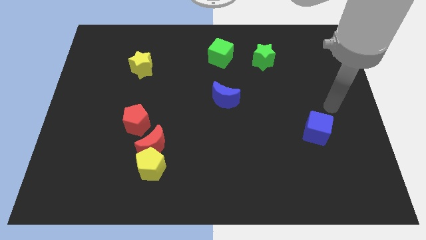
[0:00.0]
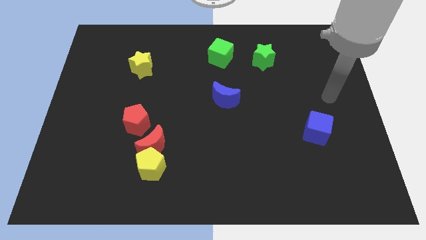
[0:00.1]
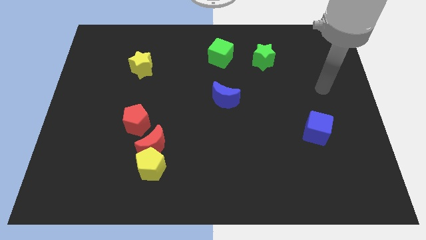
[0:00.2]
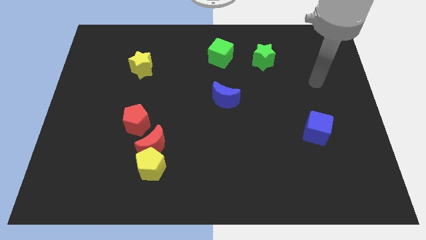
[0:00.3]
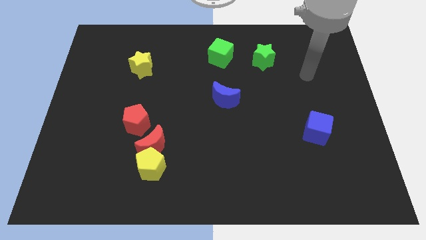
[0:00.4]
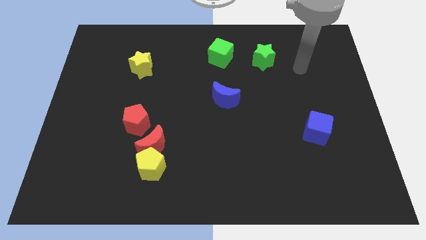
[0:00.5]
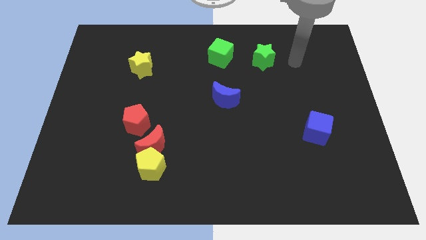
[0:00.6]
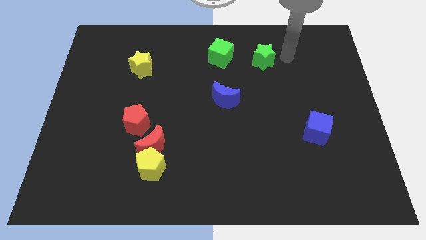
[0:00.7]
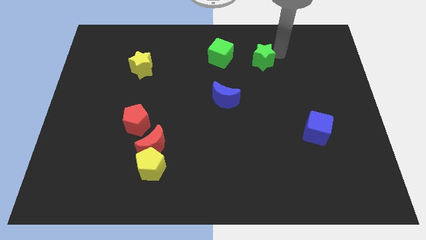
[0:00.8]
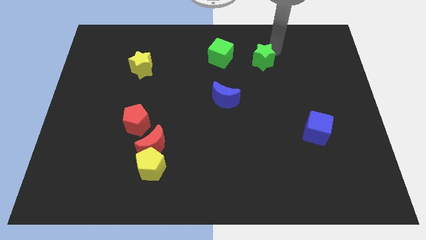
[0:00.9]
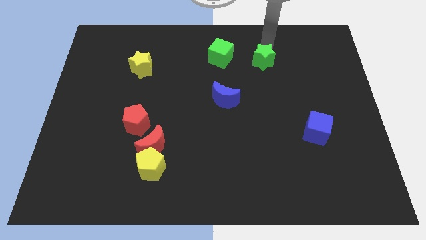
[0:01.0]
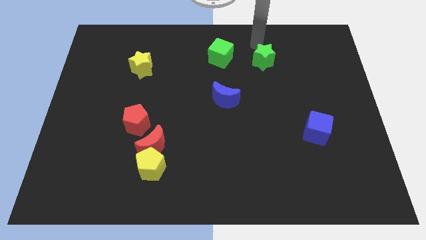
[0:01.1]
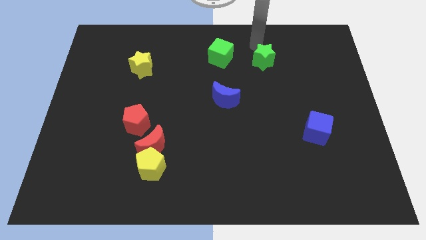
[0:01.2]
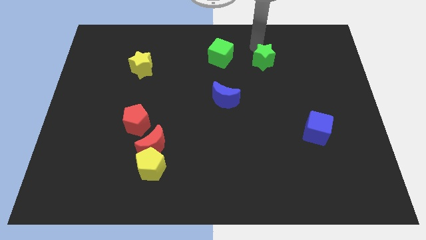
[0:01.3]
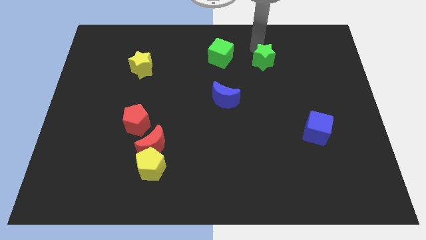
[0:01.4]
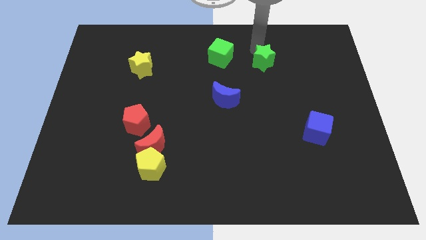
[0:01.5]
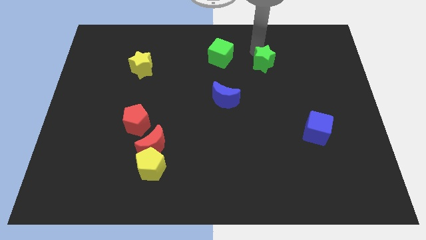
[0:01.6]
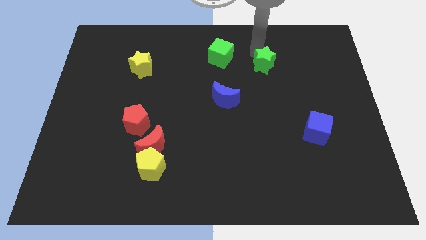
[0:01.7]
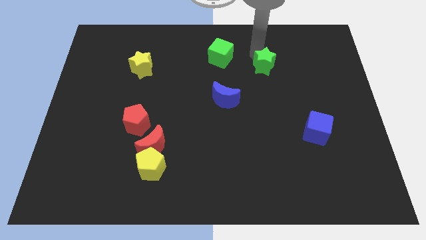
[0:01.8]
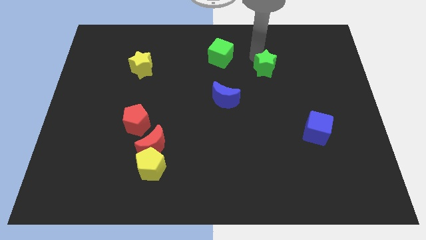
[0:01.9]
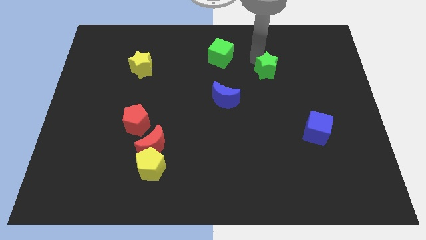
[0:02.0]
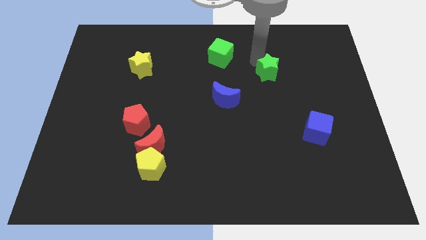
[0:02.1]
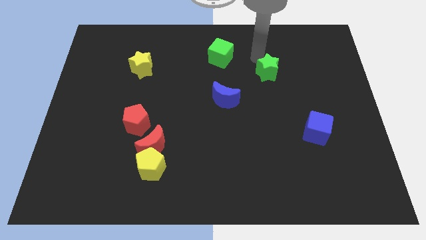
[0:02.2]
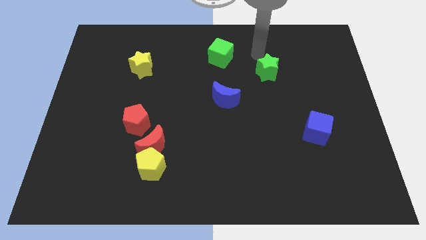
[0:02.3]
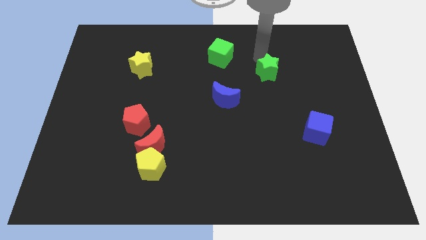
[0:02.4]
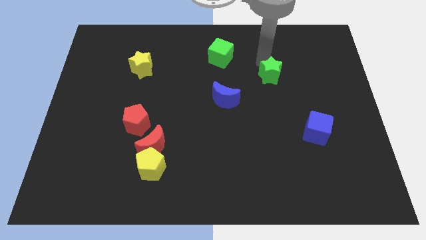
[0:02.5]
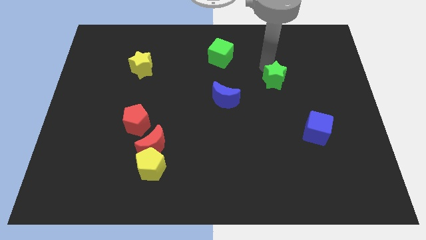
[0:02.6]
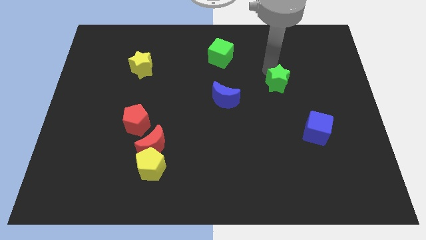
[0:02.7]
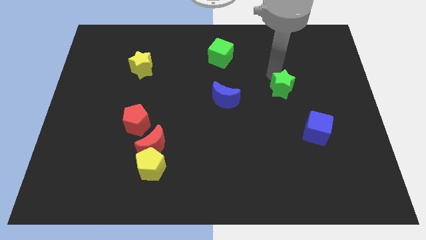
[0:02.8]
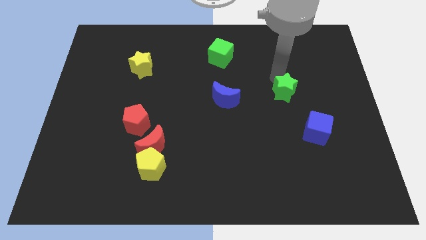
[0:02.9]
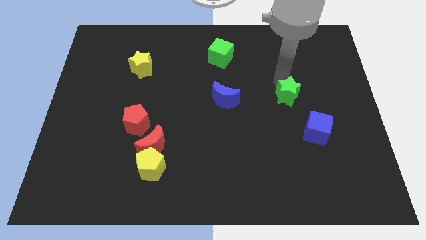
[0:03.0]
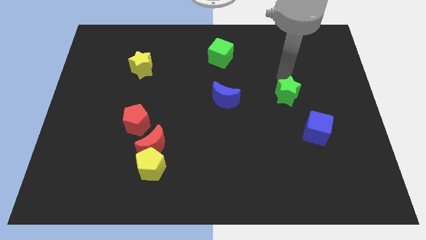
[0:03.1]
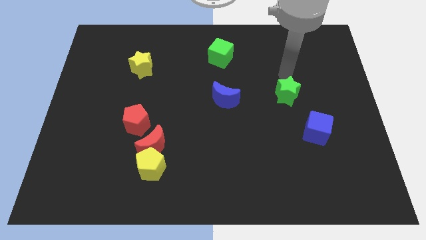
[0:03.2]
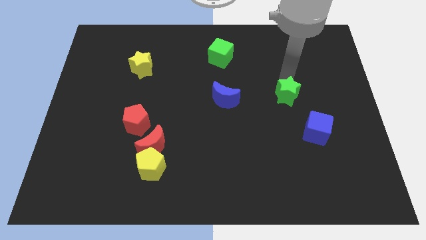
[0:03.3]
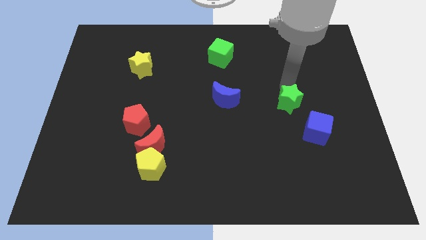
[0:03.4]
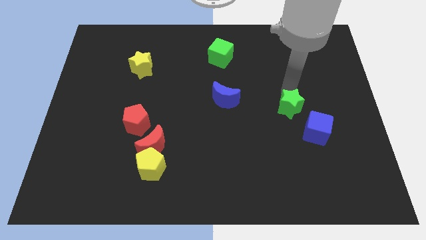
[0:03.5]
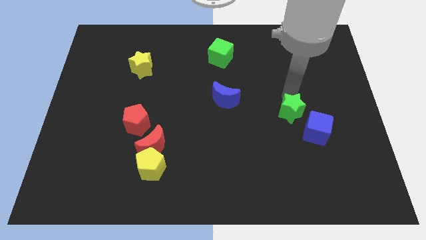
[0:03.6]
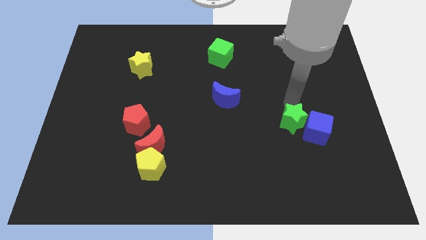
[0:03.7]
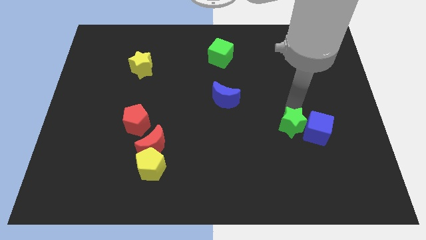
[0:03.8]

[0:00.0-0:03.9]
slide the green star down

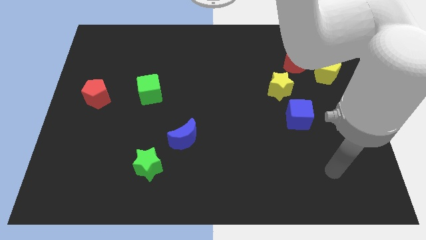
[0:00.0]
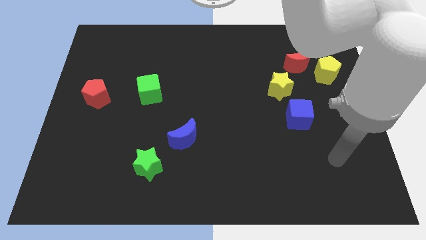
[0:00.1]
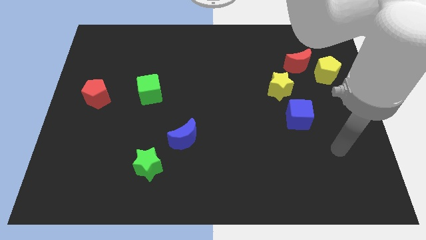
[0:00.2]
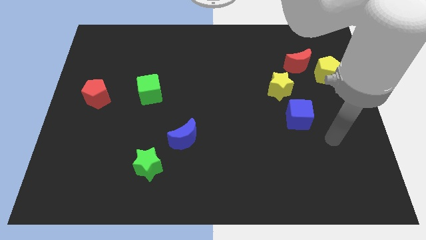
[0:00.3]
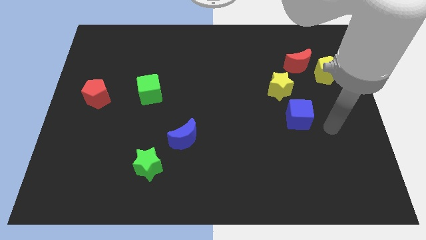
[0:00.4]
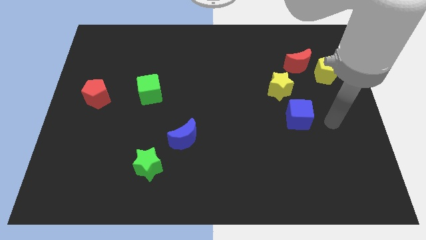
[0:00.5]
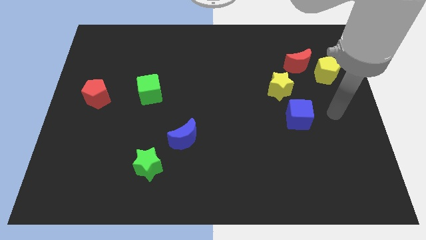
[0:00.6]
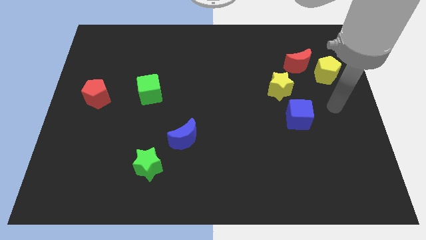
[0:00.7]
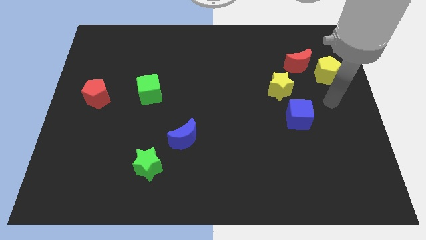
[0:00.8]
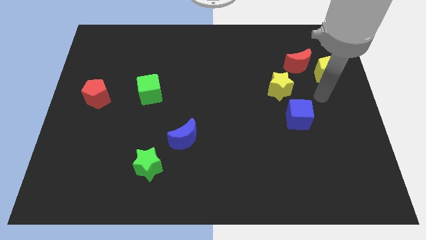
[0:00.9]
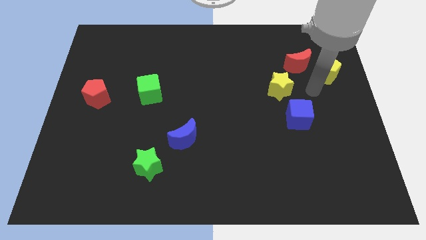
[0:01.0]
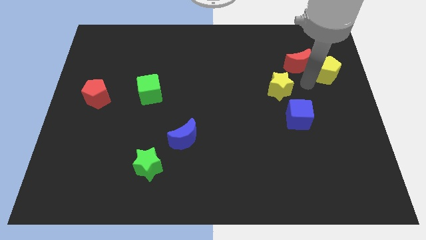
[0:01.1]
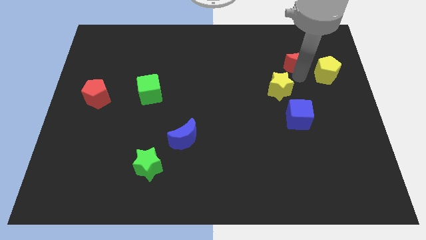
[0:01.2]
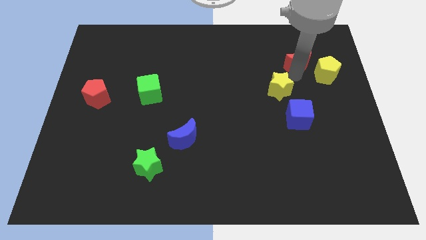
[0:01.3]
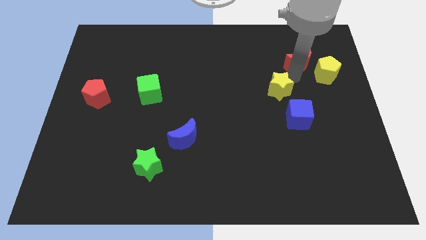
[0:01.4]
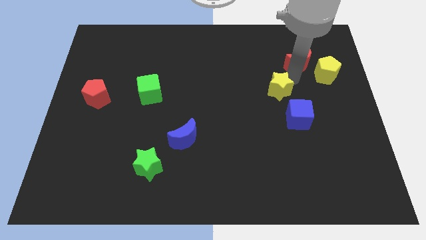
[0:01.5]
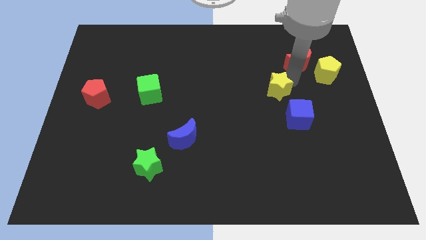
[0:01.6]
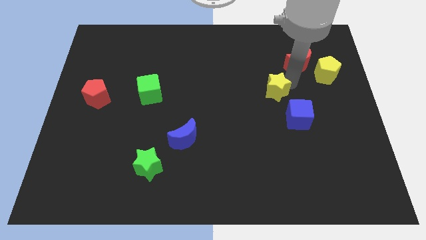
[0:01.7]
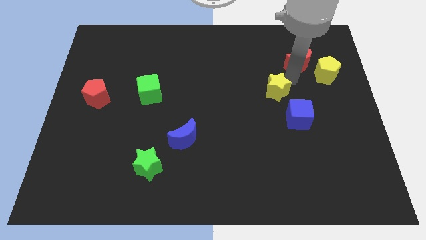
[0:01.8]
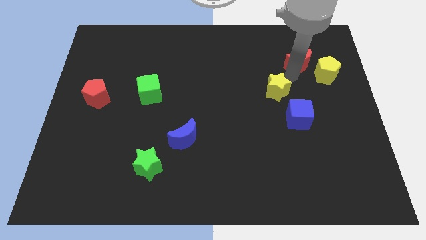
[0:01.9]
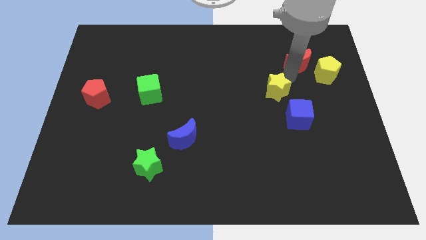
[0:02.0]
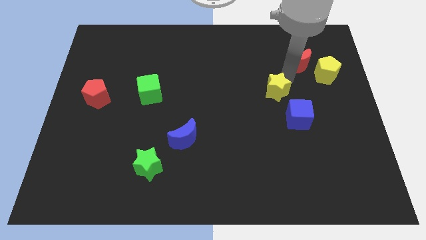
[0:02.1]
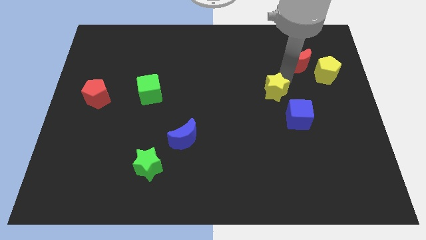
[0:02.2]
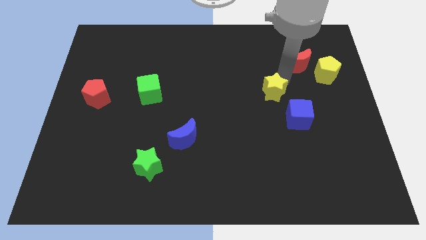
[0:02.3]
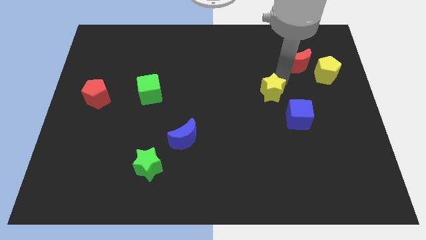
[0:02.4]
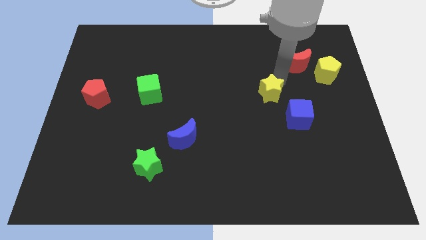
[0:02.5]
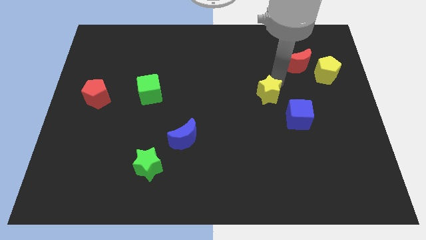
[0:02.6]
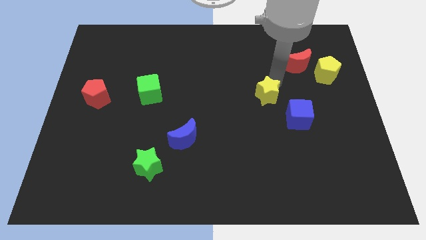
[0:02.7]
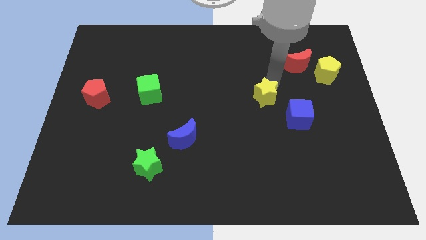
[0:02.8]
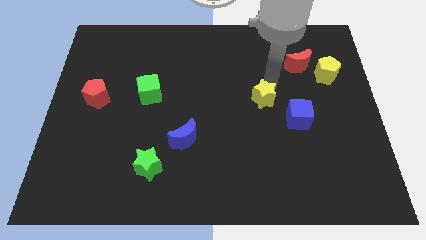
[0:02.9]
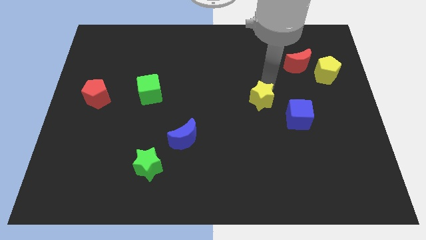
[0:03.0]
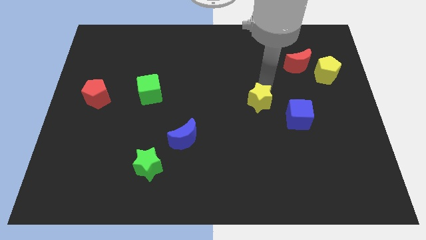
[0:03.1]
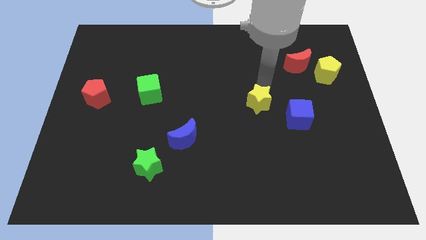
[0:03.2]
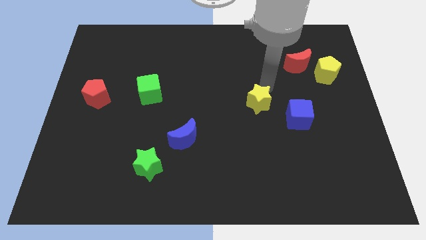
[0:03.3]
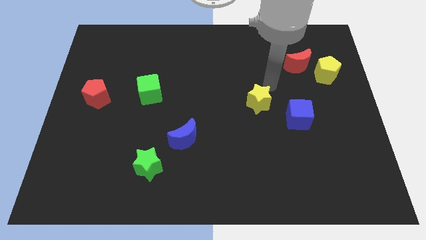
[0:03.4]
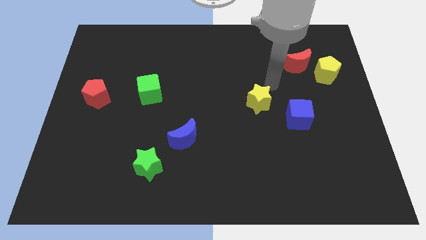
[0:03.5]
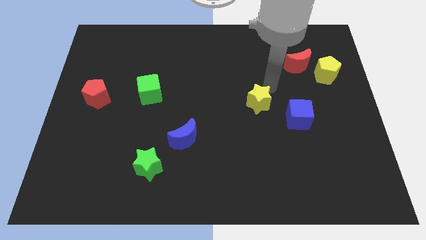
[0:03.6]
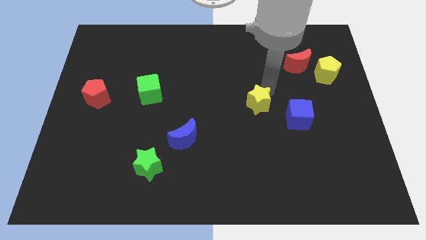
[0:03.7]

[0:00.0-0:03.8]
move the yellow star a bit downwards and then left
